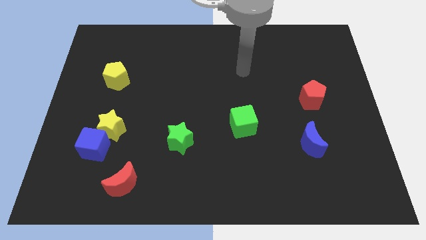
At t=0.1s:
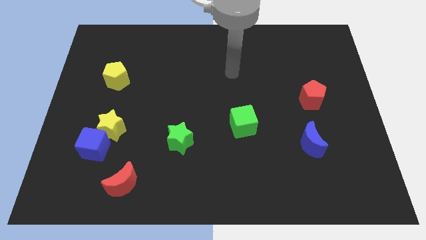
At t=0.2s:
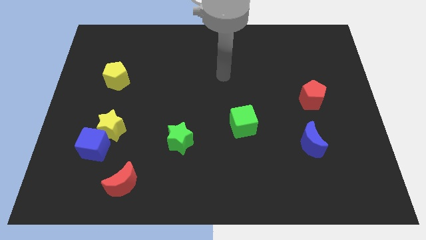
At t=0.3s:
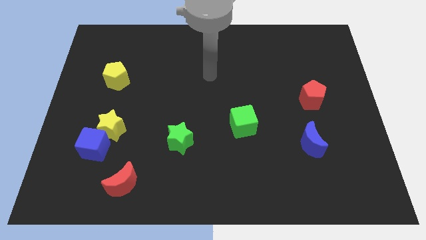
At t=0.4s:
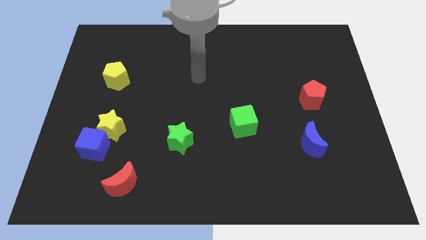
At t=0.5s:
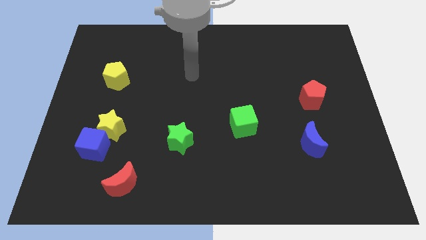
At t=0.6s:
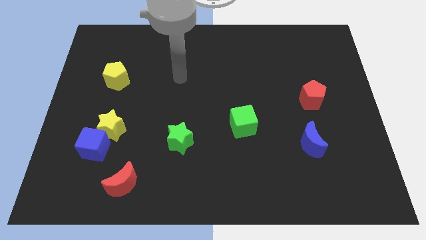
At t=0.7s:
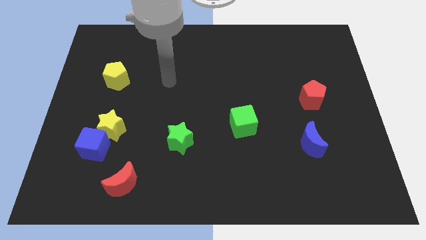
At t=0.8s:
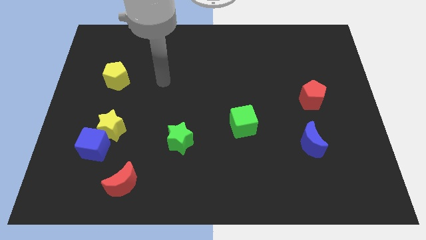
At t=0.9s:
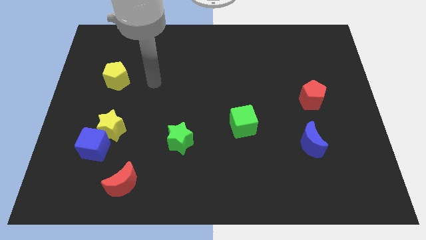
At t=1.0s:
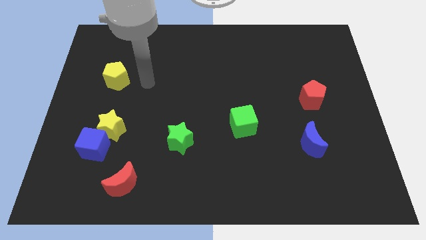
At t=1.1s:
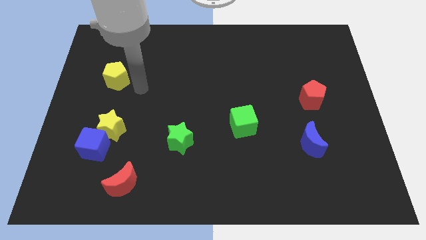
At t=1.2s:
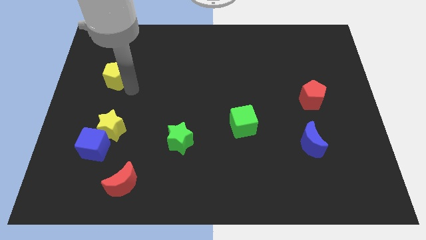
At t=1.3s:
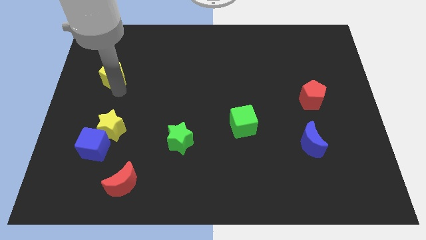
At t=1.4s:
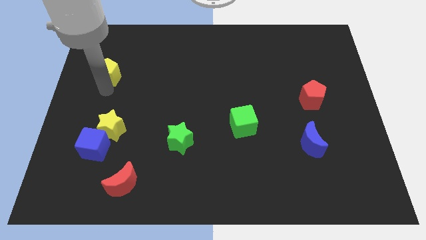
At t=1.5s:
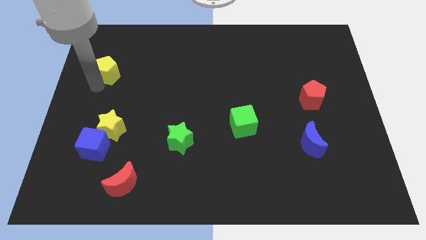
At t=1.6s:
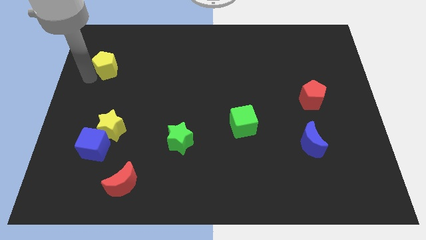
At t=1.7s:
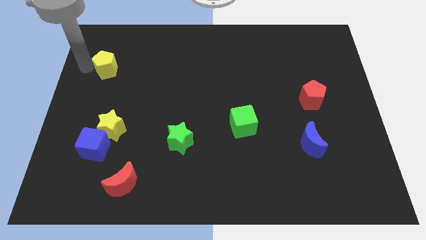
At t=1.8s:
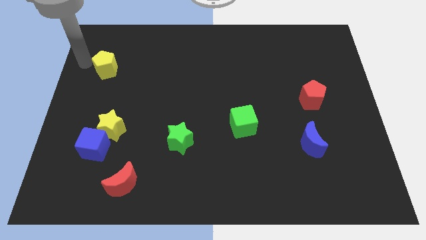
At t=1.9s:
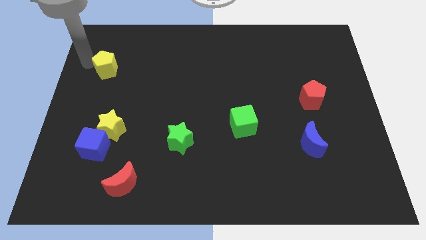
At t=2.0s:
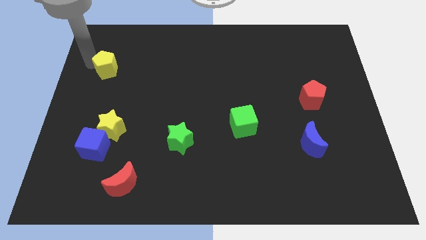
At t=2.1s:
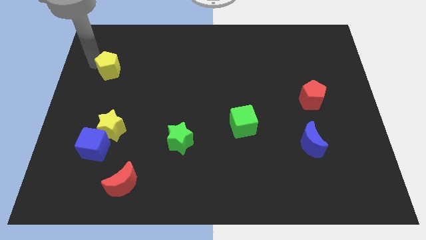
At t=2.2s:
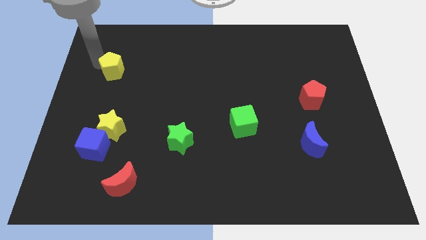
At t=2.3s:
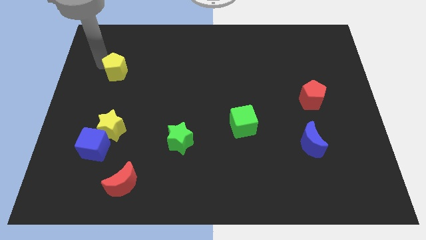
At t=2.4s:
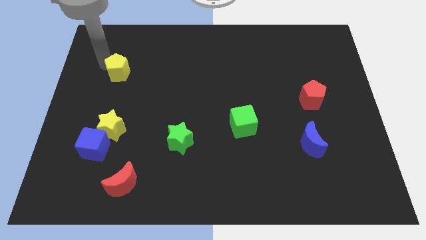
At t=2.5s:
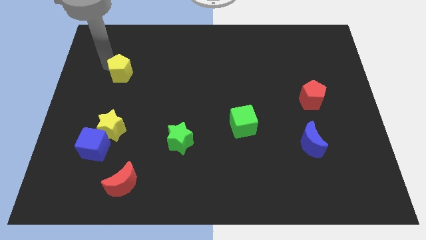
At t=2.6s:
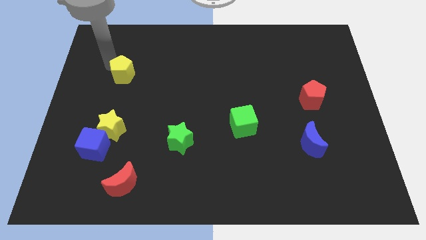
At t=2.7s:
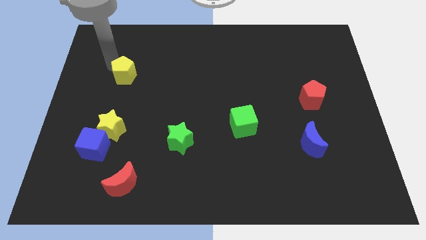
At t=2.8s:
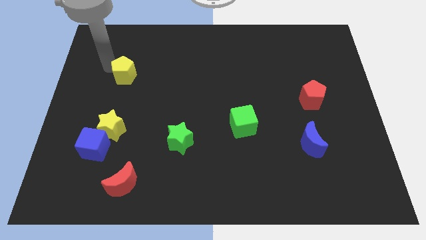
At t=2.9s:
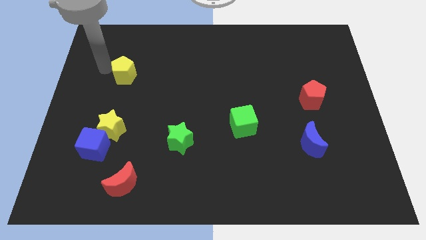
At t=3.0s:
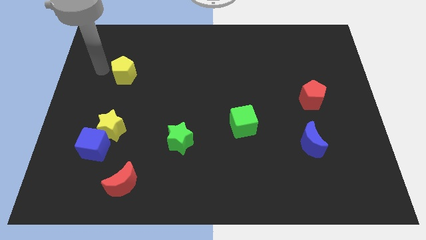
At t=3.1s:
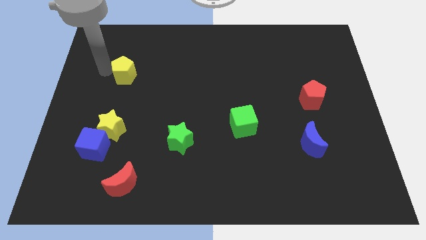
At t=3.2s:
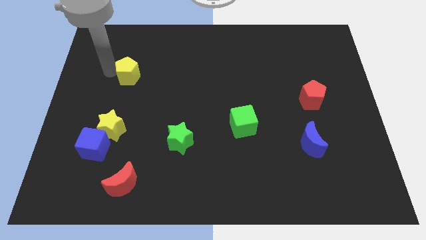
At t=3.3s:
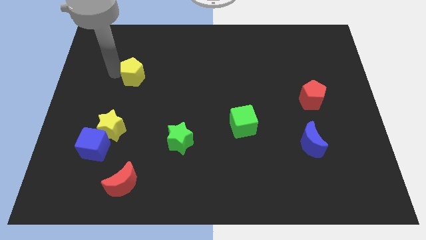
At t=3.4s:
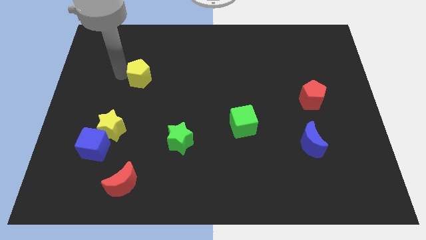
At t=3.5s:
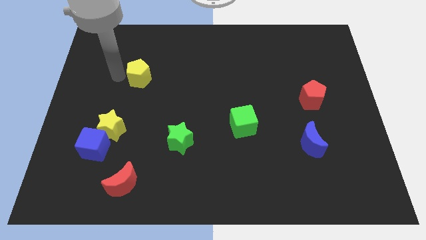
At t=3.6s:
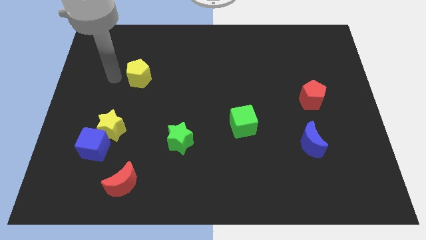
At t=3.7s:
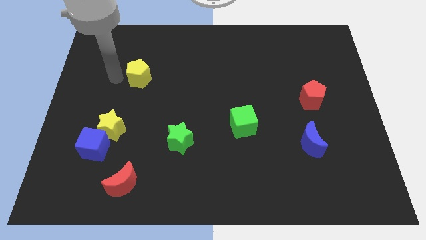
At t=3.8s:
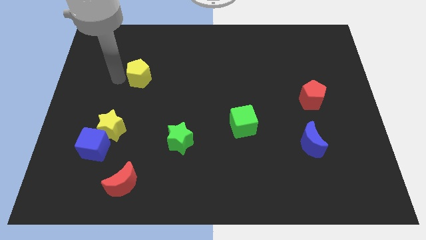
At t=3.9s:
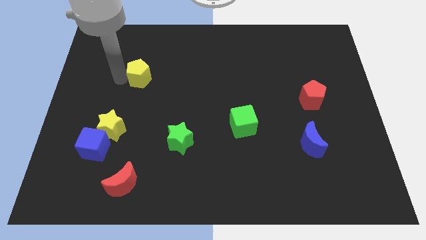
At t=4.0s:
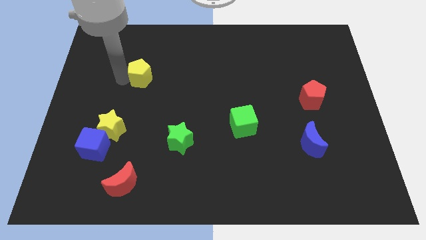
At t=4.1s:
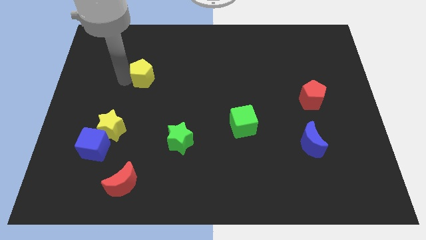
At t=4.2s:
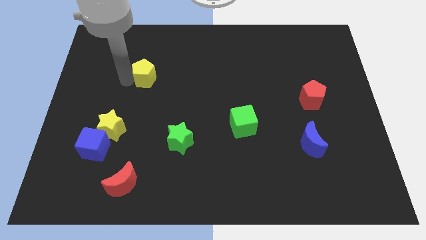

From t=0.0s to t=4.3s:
move the yellow pentagon a little bit to the right

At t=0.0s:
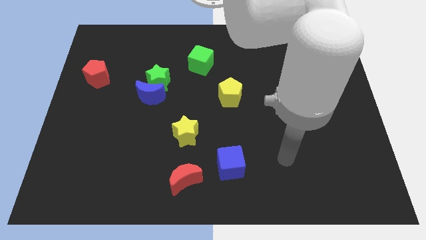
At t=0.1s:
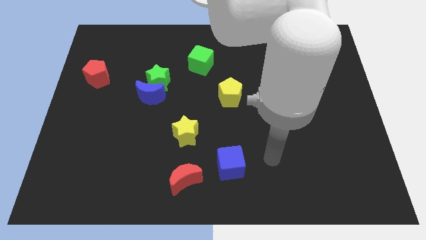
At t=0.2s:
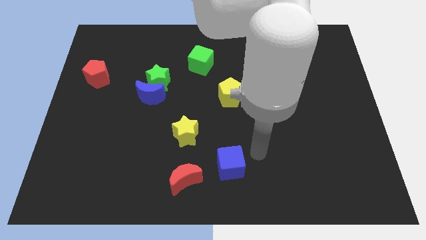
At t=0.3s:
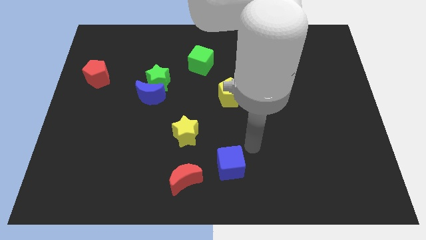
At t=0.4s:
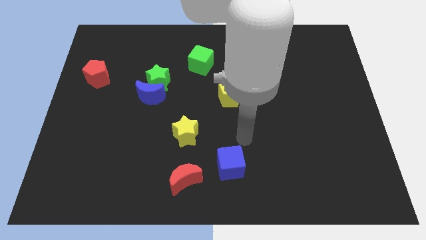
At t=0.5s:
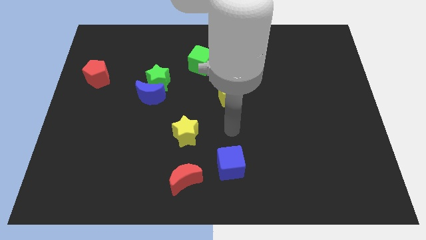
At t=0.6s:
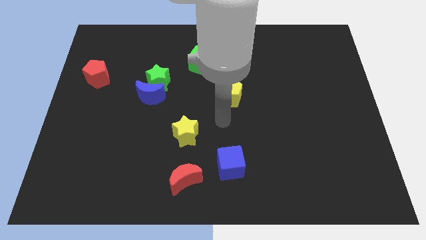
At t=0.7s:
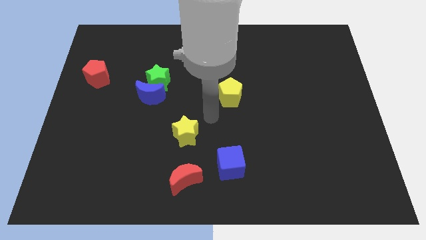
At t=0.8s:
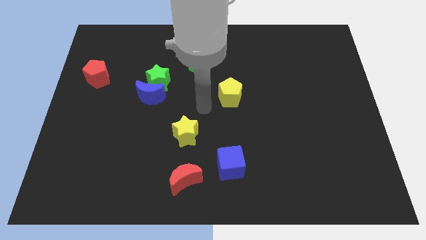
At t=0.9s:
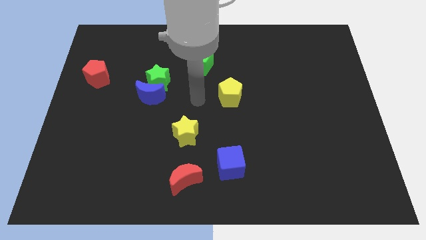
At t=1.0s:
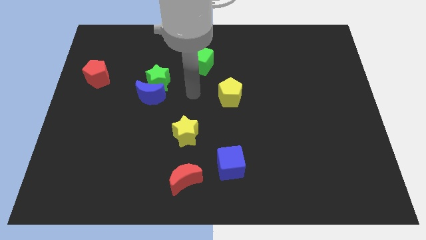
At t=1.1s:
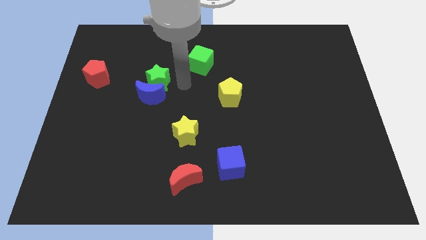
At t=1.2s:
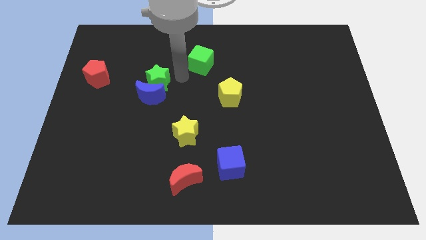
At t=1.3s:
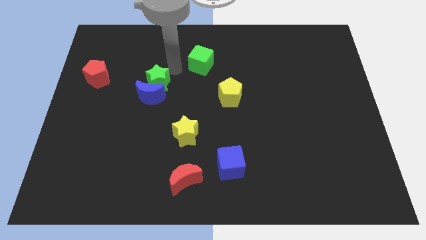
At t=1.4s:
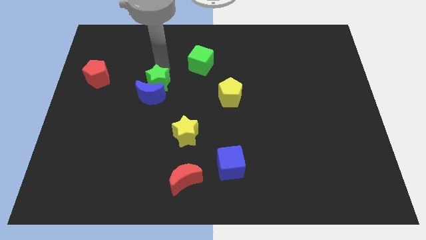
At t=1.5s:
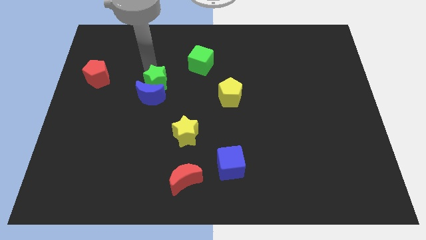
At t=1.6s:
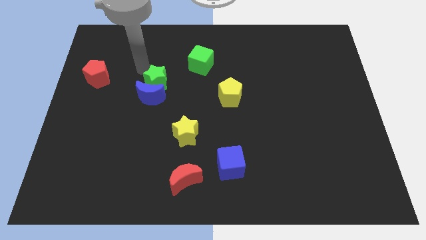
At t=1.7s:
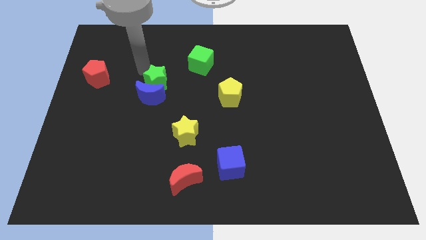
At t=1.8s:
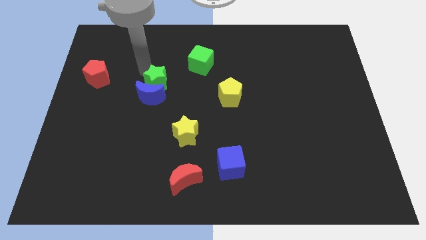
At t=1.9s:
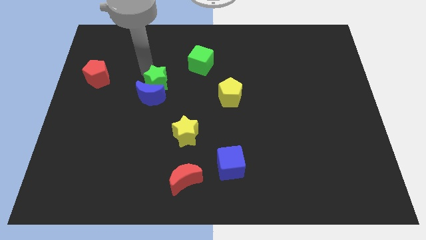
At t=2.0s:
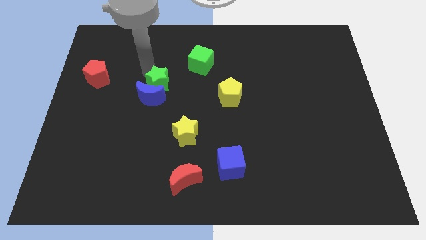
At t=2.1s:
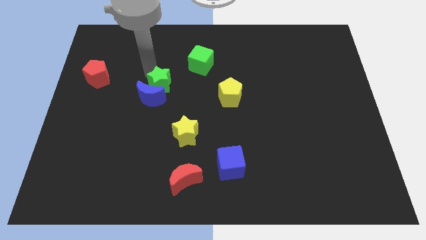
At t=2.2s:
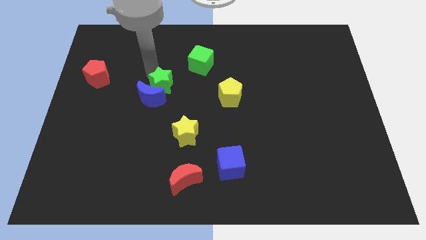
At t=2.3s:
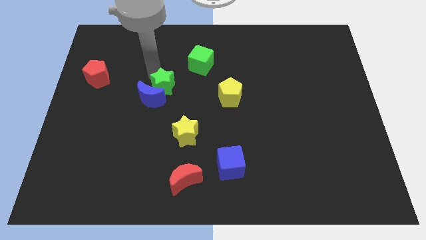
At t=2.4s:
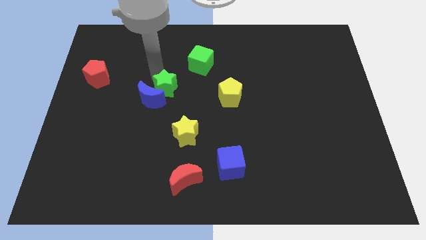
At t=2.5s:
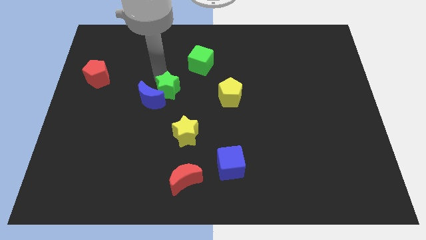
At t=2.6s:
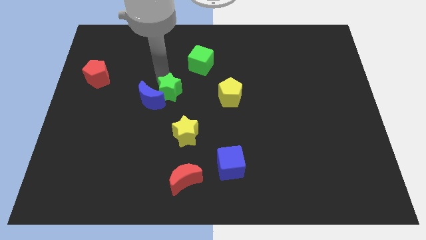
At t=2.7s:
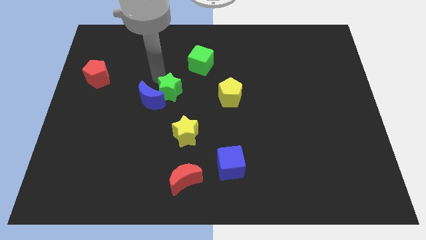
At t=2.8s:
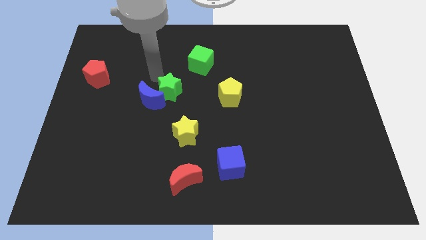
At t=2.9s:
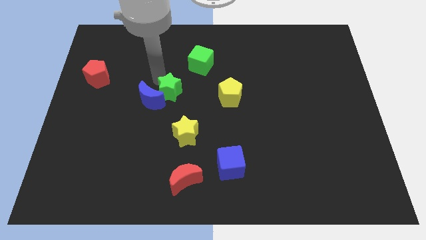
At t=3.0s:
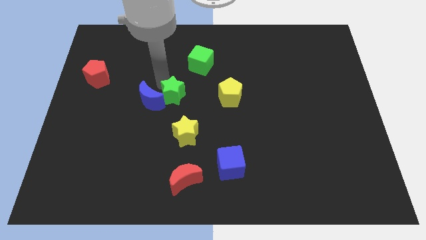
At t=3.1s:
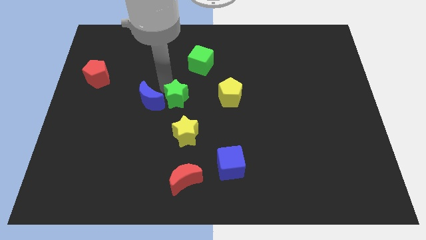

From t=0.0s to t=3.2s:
slide the green star a little bit downwards and to the right

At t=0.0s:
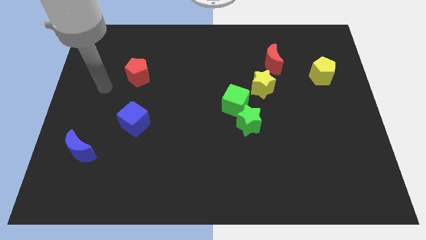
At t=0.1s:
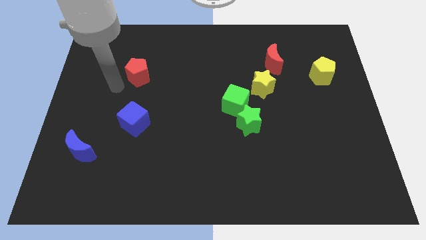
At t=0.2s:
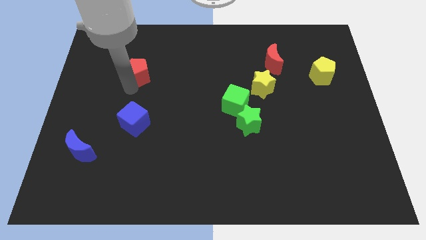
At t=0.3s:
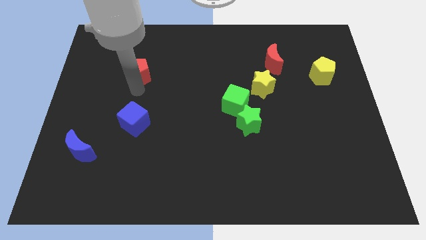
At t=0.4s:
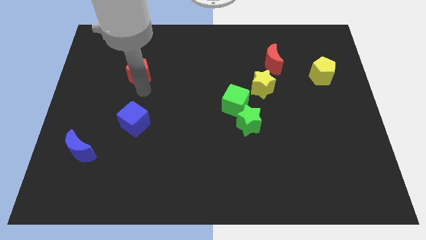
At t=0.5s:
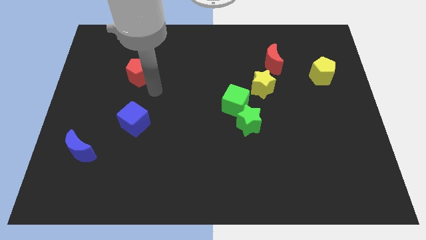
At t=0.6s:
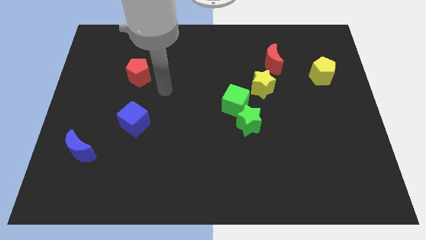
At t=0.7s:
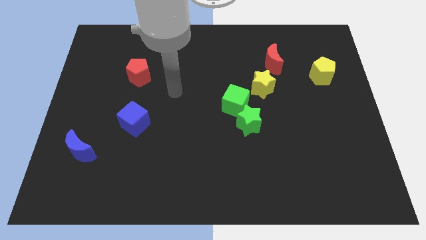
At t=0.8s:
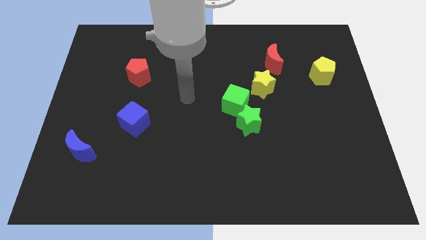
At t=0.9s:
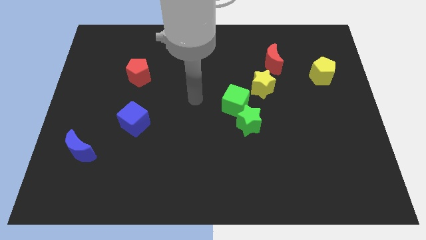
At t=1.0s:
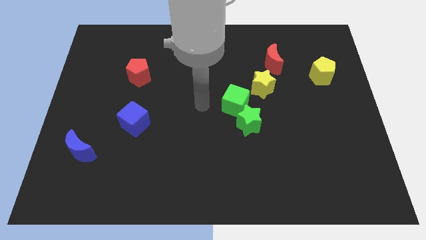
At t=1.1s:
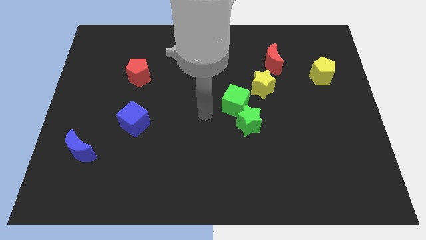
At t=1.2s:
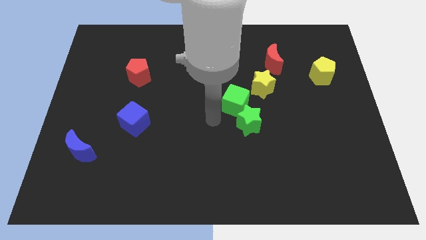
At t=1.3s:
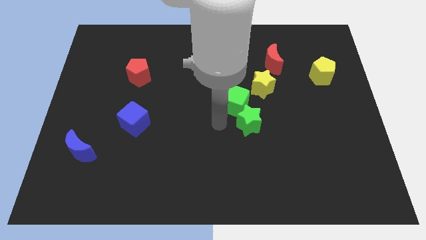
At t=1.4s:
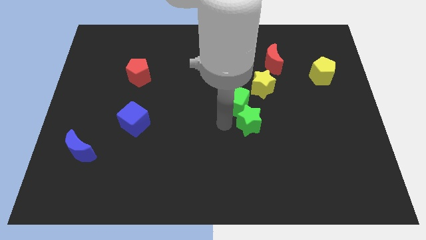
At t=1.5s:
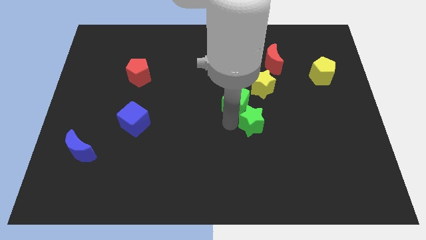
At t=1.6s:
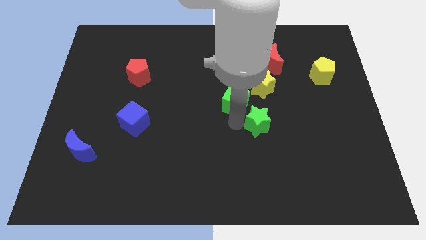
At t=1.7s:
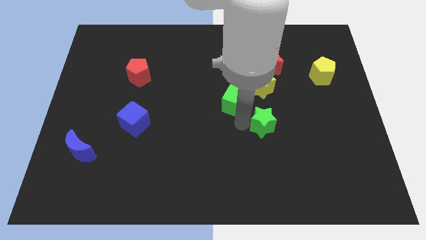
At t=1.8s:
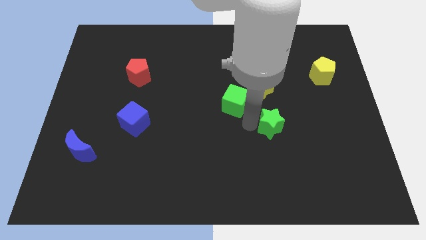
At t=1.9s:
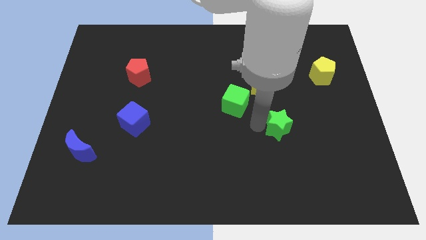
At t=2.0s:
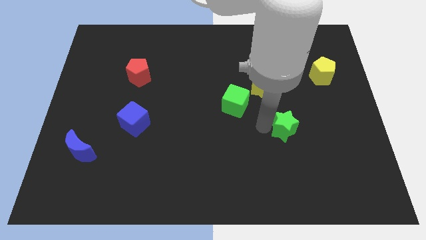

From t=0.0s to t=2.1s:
slide the green star a little bit right
